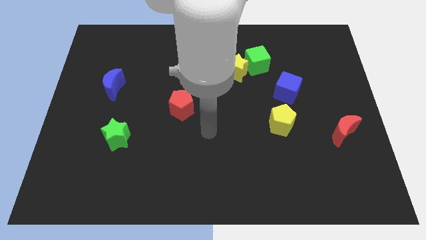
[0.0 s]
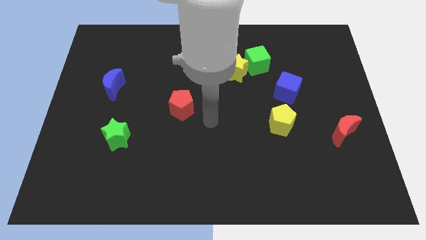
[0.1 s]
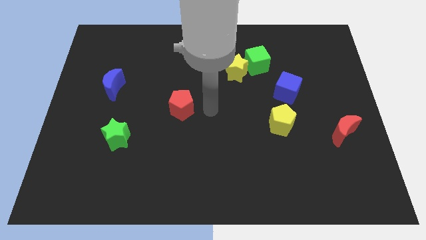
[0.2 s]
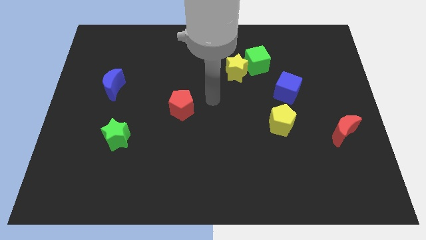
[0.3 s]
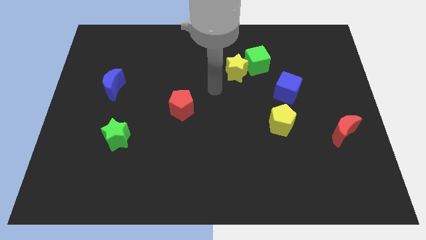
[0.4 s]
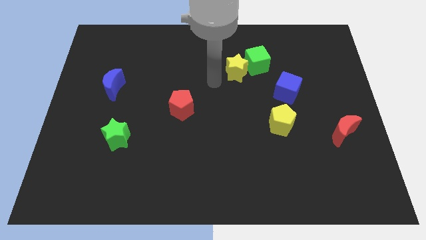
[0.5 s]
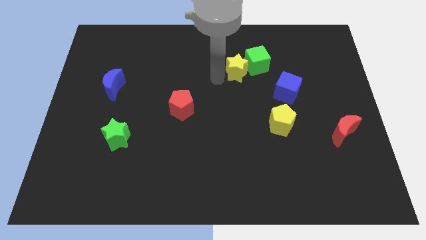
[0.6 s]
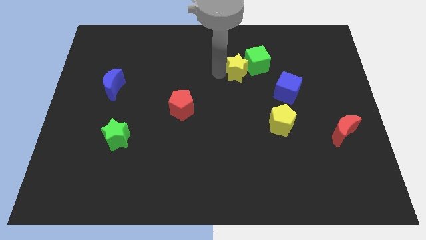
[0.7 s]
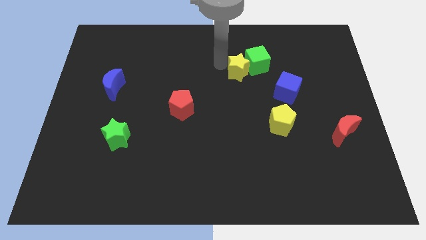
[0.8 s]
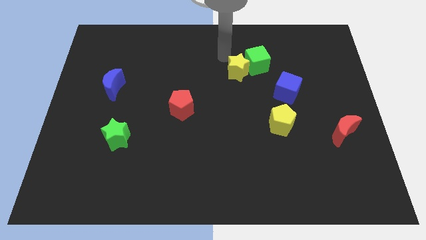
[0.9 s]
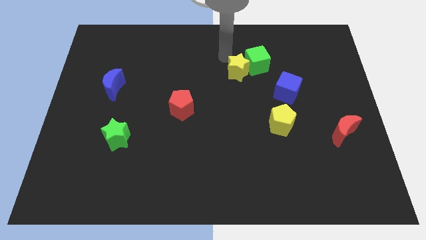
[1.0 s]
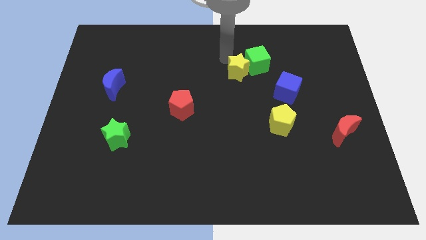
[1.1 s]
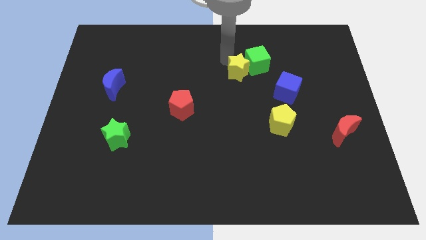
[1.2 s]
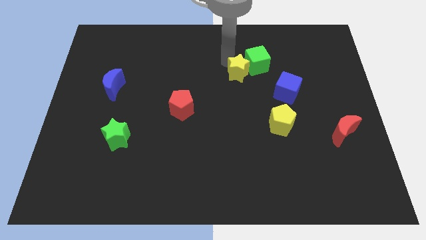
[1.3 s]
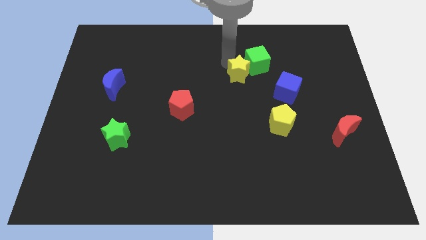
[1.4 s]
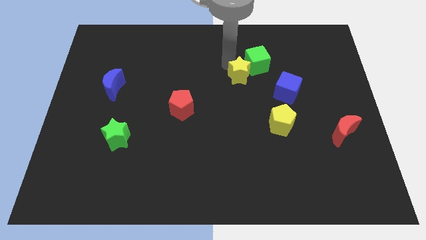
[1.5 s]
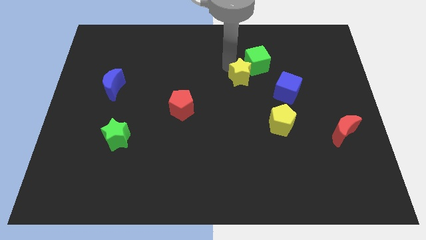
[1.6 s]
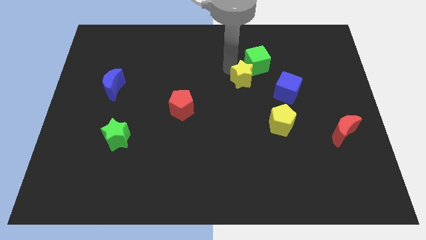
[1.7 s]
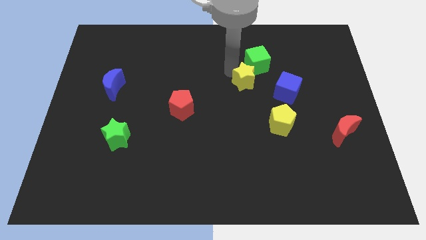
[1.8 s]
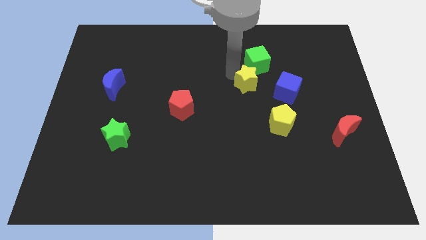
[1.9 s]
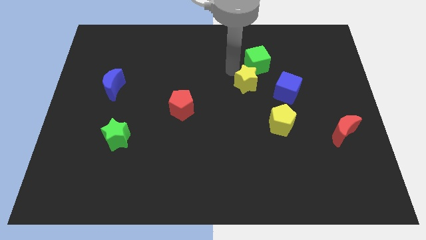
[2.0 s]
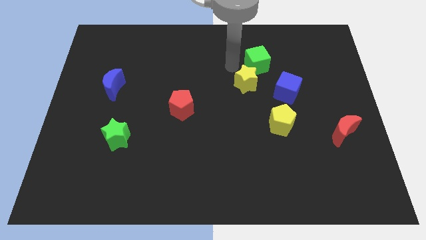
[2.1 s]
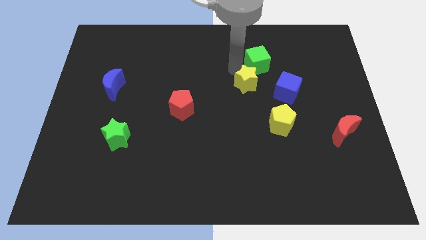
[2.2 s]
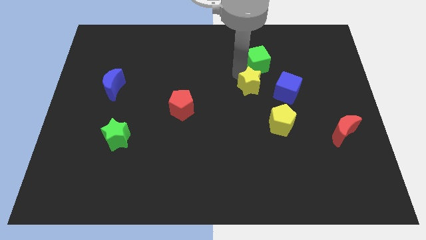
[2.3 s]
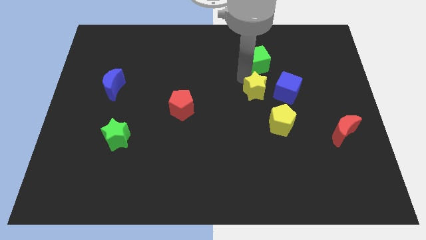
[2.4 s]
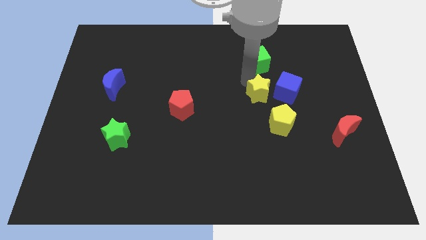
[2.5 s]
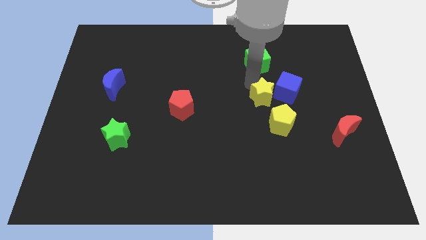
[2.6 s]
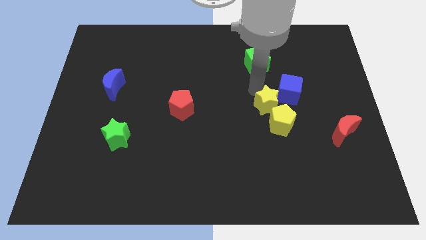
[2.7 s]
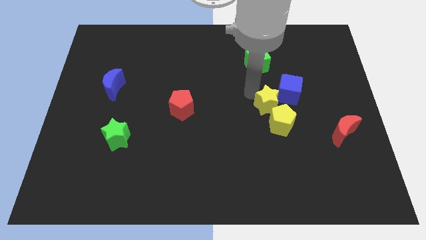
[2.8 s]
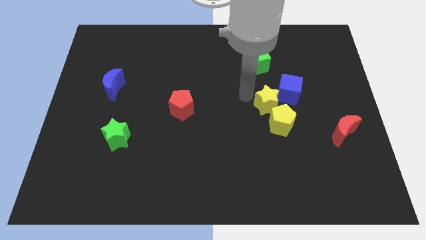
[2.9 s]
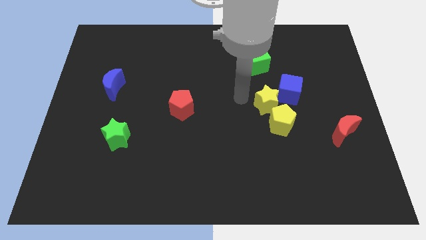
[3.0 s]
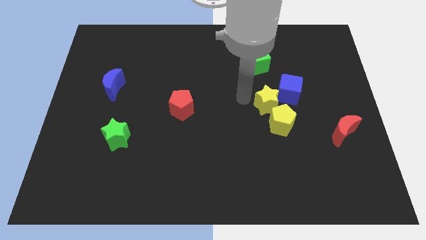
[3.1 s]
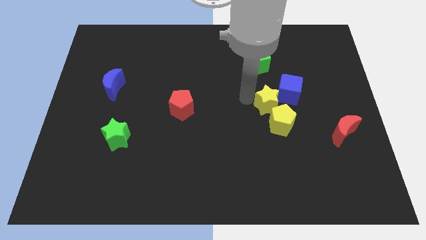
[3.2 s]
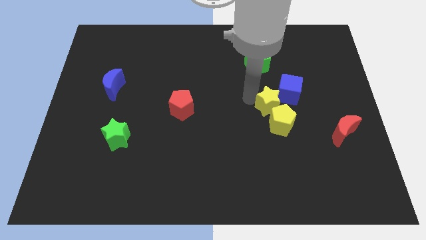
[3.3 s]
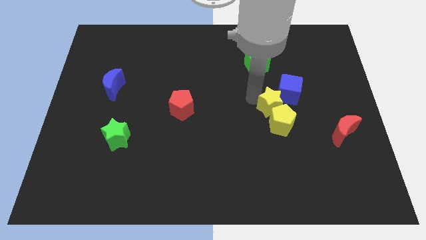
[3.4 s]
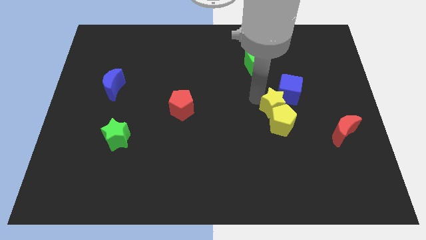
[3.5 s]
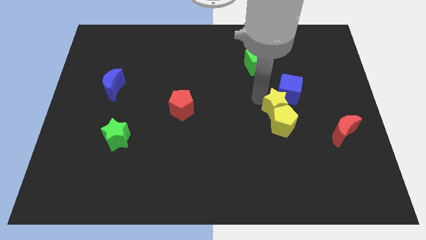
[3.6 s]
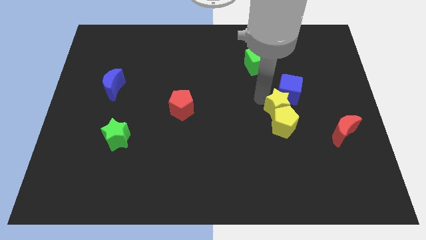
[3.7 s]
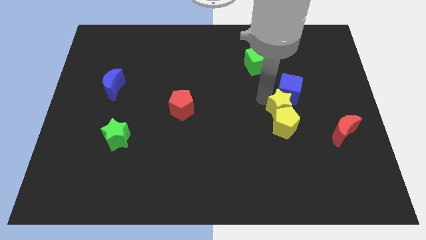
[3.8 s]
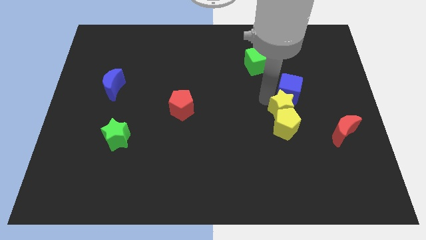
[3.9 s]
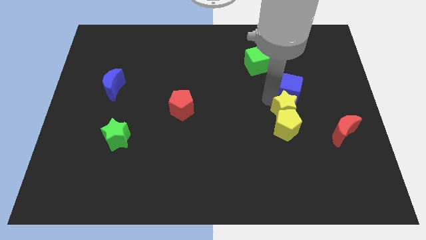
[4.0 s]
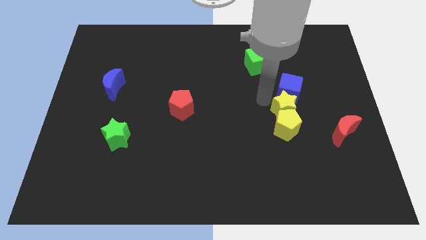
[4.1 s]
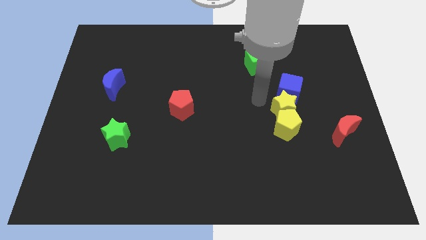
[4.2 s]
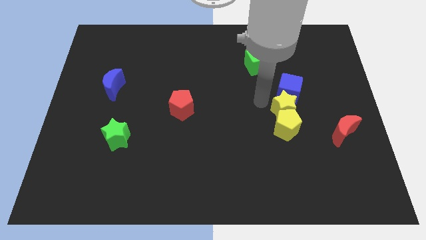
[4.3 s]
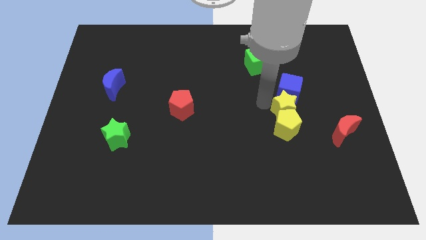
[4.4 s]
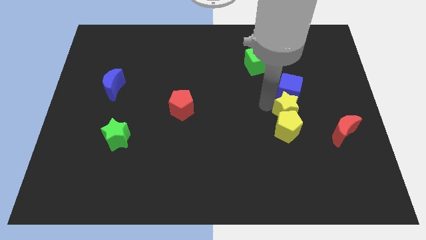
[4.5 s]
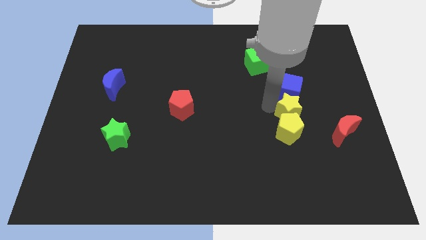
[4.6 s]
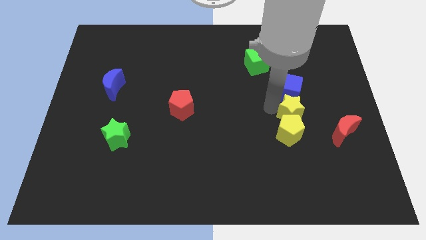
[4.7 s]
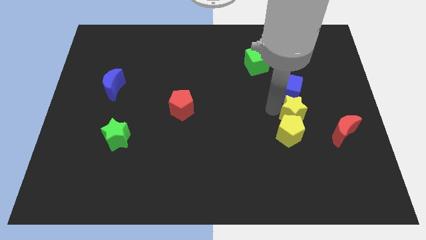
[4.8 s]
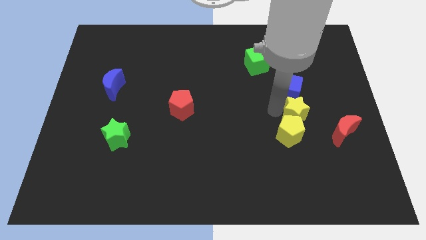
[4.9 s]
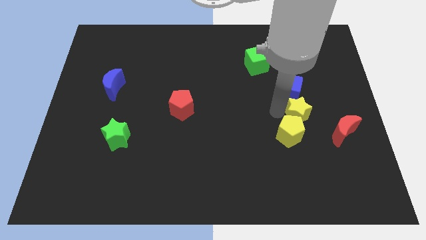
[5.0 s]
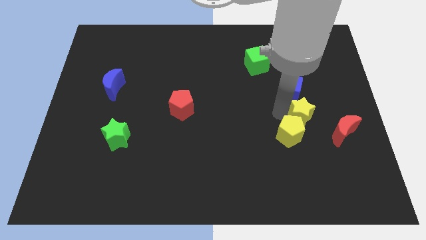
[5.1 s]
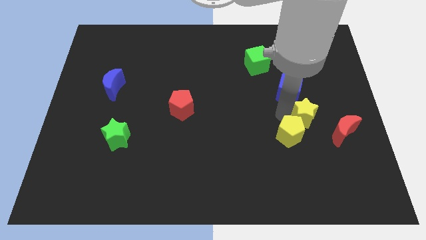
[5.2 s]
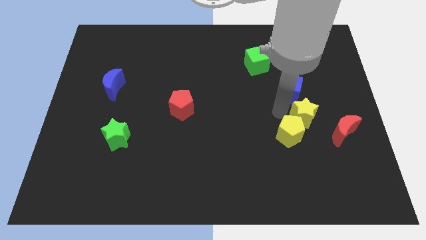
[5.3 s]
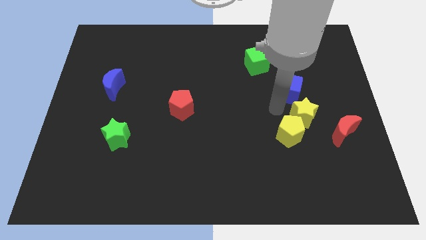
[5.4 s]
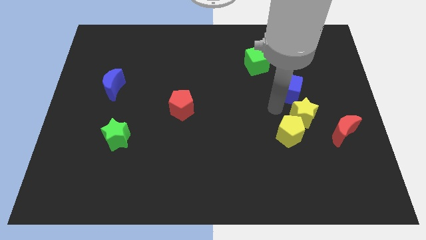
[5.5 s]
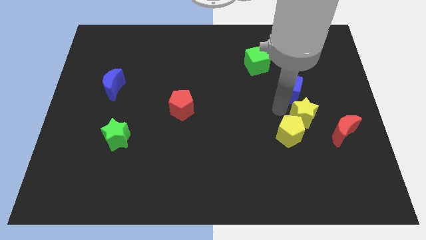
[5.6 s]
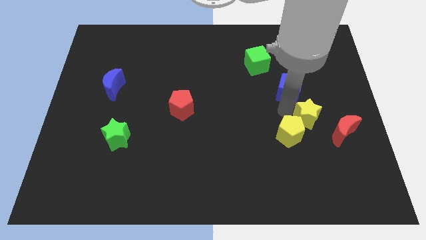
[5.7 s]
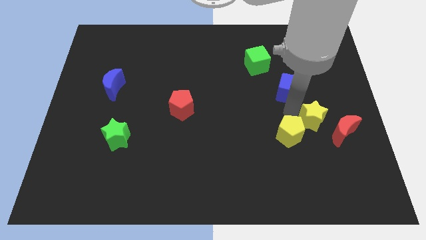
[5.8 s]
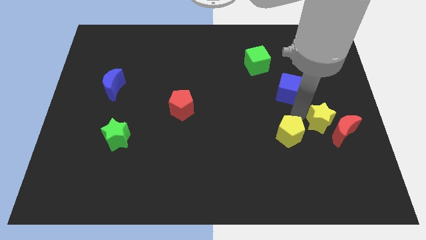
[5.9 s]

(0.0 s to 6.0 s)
slide the yellow star next to the red moon

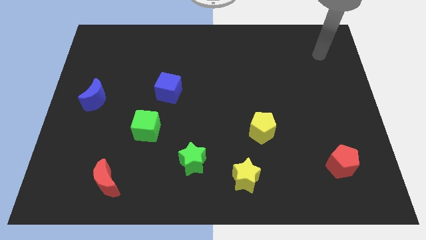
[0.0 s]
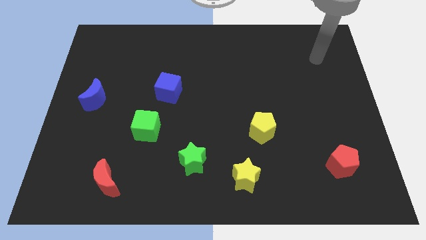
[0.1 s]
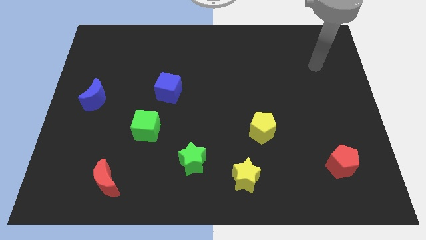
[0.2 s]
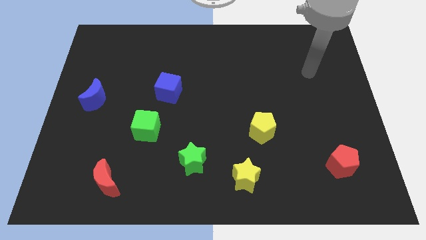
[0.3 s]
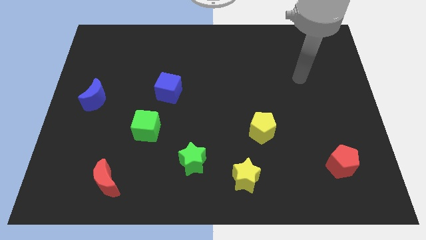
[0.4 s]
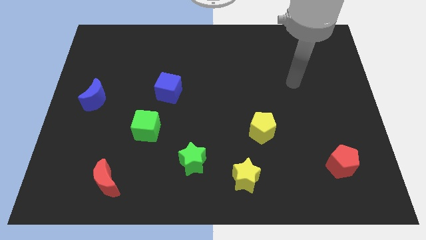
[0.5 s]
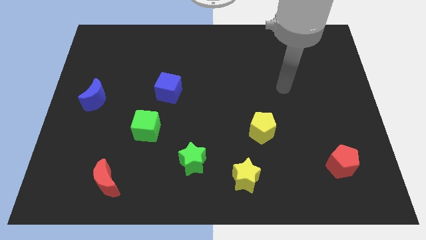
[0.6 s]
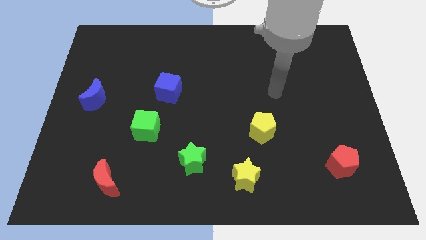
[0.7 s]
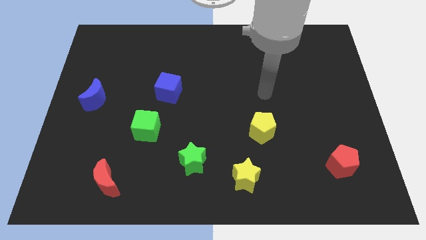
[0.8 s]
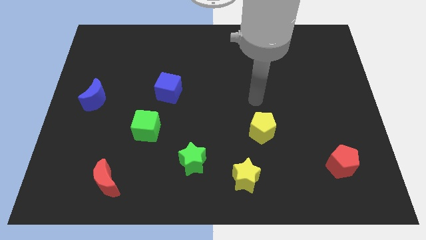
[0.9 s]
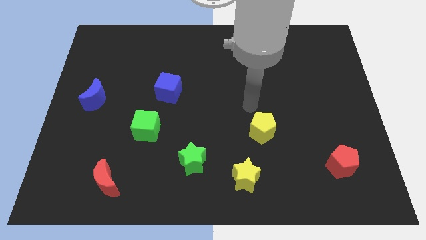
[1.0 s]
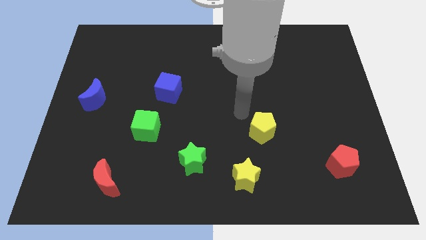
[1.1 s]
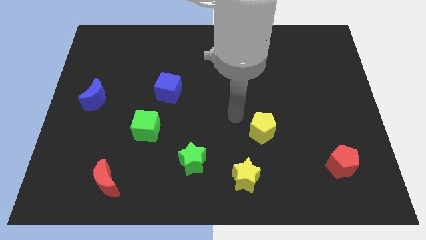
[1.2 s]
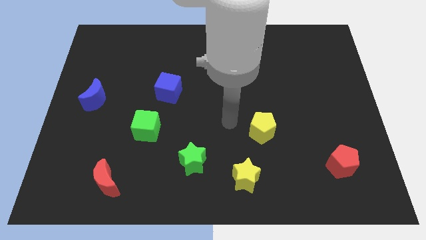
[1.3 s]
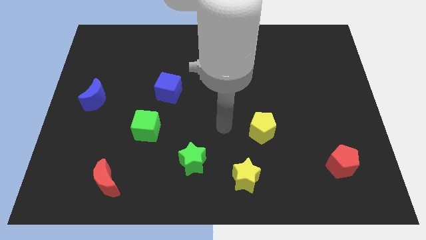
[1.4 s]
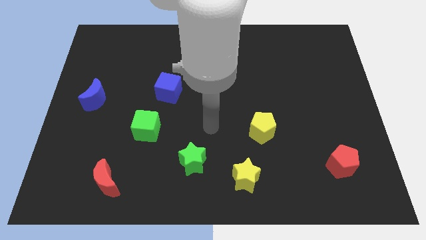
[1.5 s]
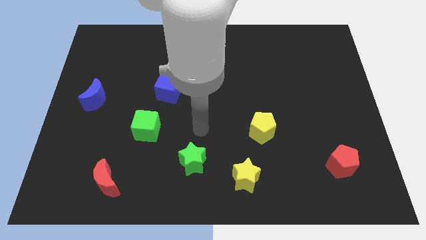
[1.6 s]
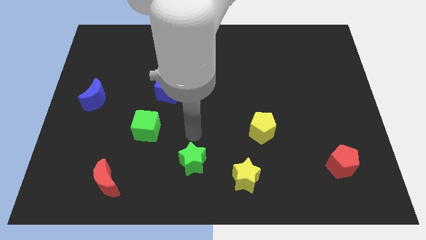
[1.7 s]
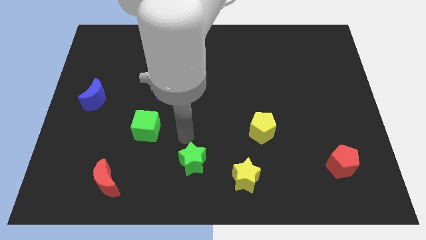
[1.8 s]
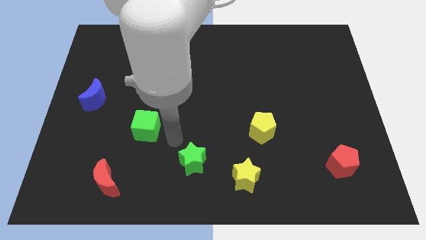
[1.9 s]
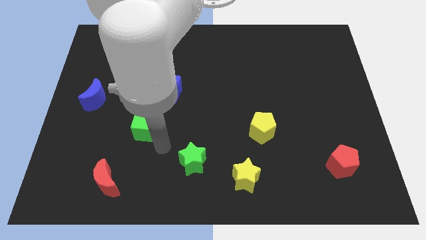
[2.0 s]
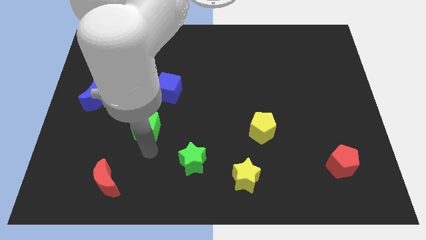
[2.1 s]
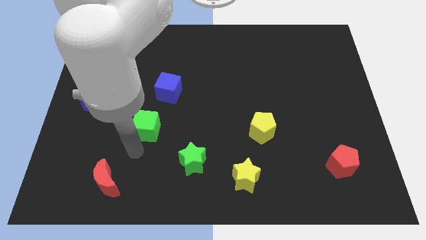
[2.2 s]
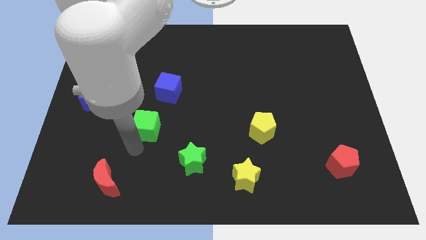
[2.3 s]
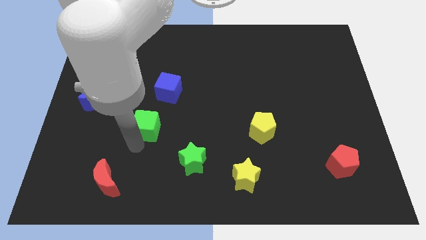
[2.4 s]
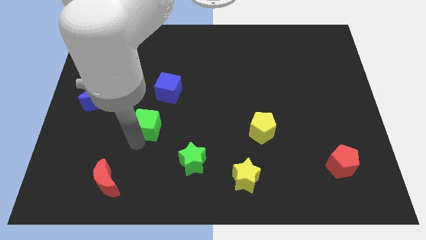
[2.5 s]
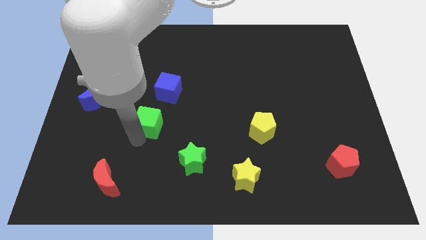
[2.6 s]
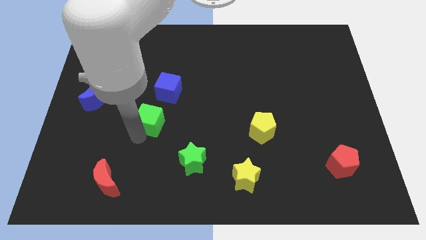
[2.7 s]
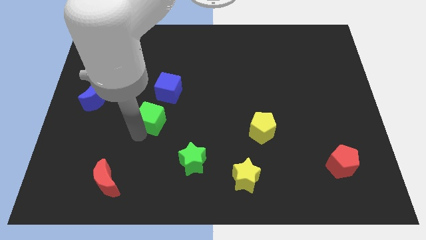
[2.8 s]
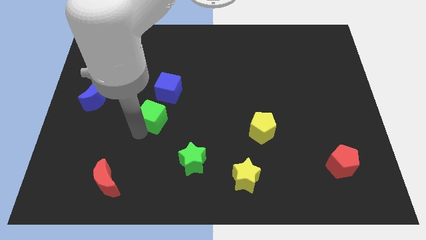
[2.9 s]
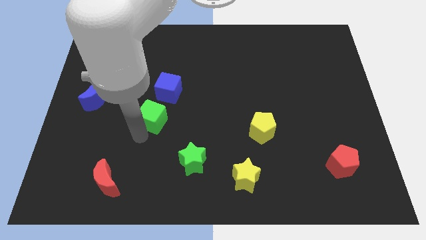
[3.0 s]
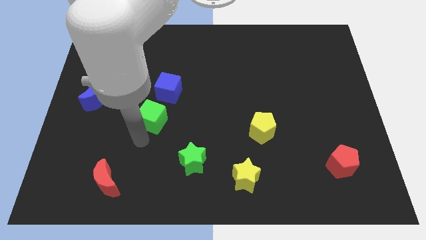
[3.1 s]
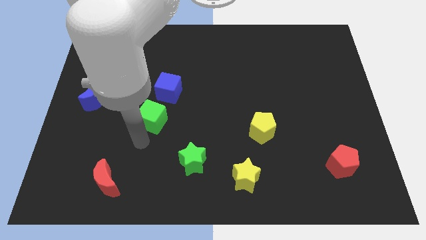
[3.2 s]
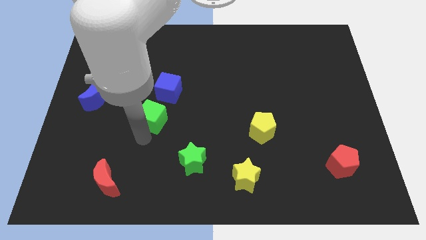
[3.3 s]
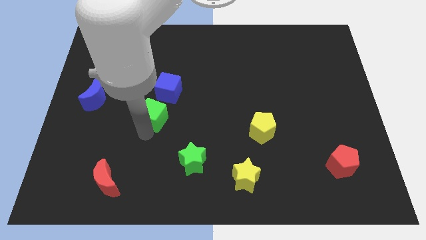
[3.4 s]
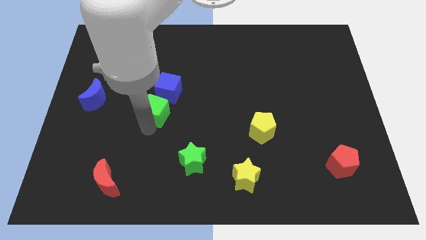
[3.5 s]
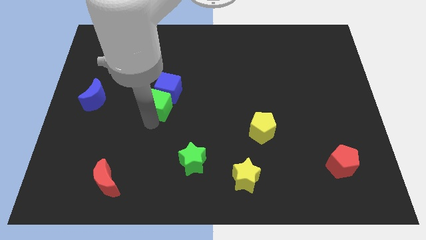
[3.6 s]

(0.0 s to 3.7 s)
push the green cube close to the blue cube
